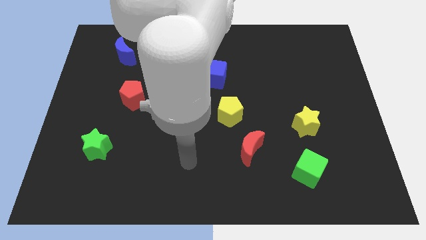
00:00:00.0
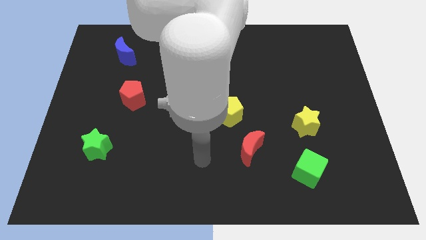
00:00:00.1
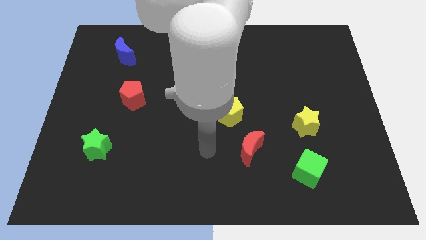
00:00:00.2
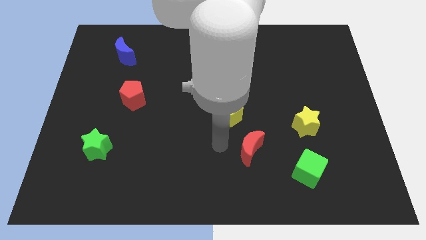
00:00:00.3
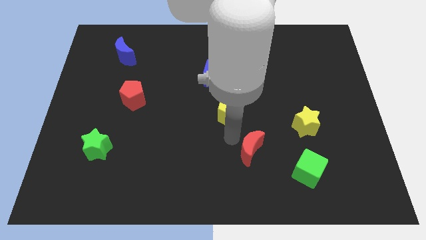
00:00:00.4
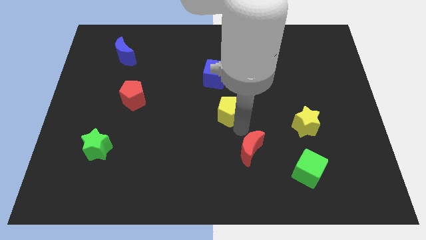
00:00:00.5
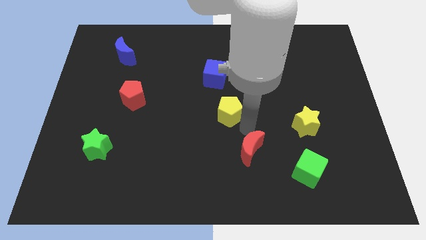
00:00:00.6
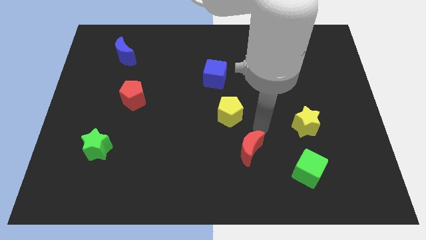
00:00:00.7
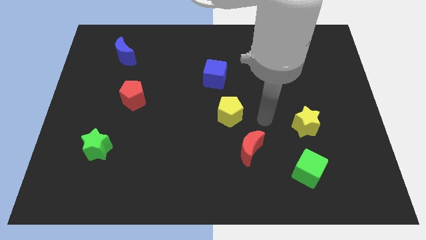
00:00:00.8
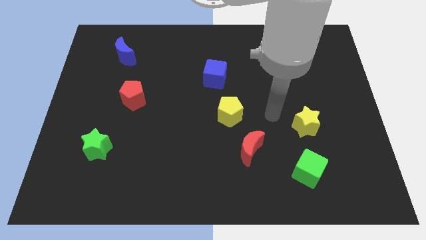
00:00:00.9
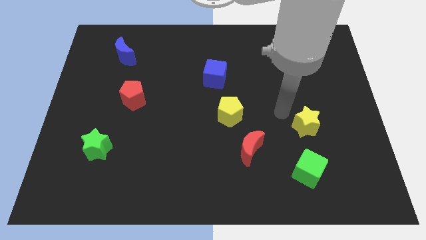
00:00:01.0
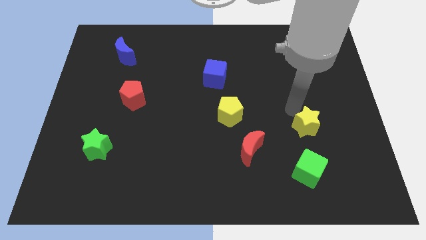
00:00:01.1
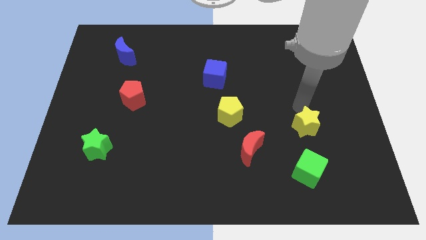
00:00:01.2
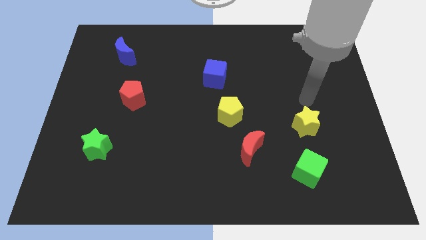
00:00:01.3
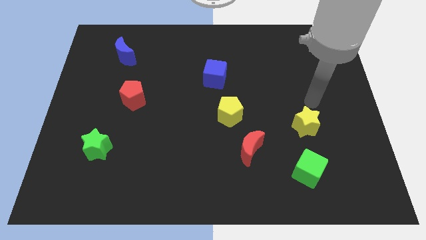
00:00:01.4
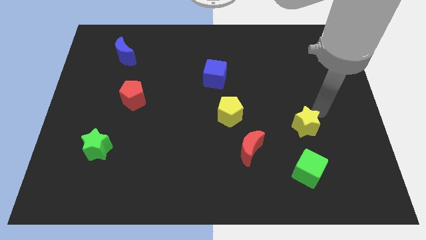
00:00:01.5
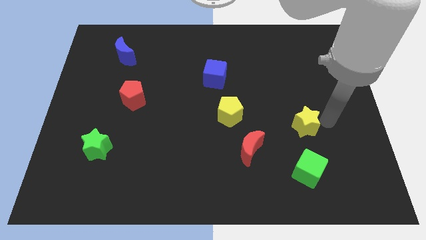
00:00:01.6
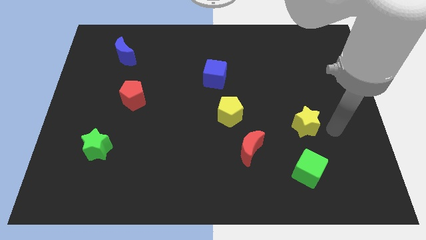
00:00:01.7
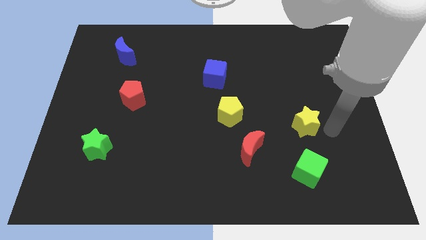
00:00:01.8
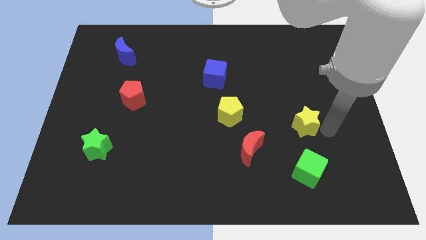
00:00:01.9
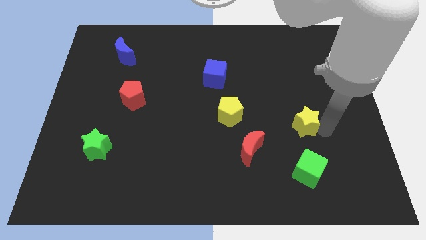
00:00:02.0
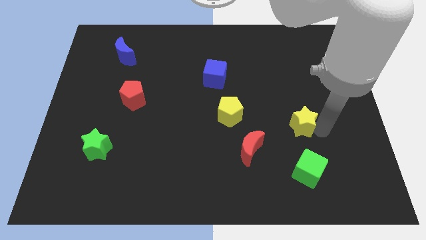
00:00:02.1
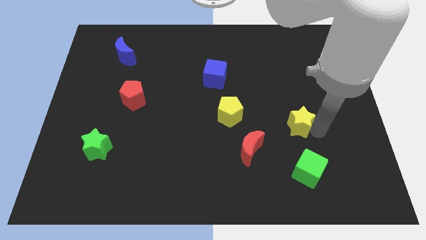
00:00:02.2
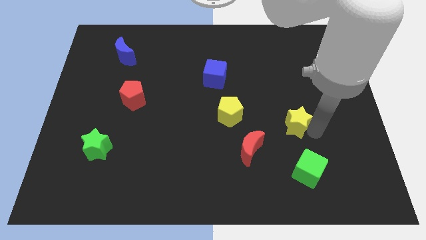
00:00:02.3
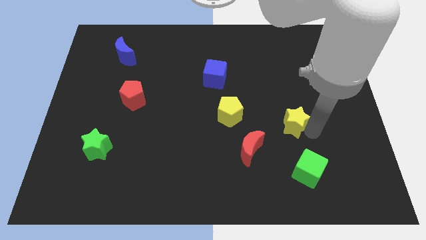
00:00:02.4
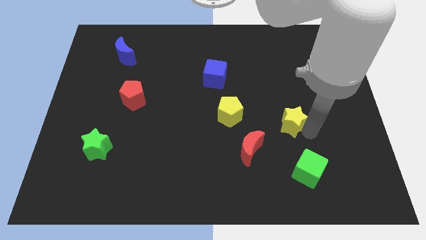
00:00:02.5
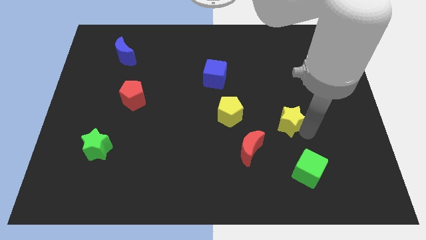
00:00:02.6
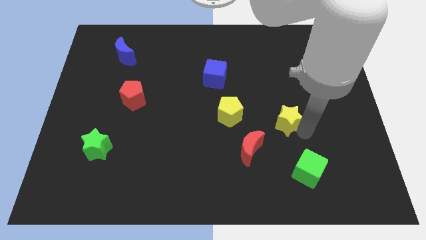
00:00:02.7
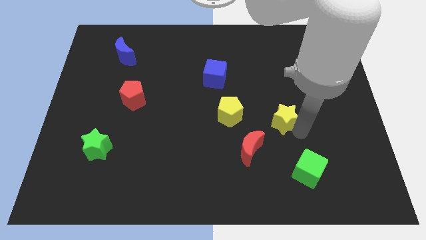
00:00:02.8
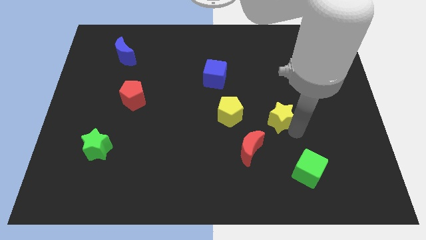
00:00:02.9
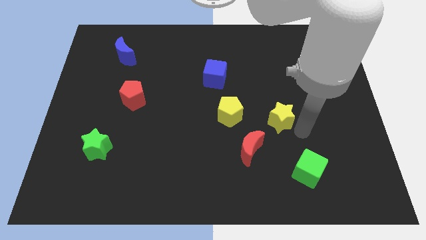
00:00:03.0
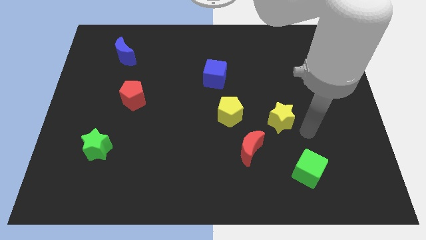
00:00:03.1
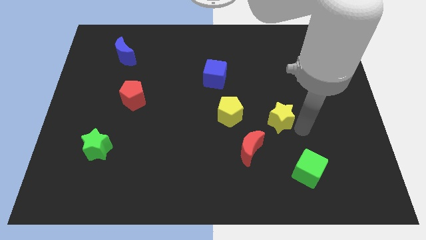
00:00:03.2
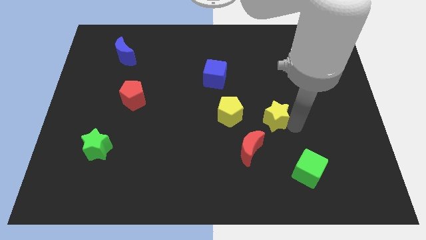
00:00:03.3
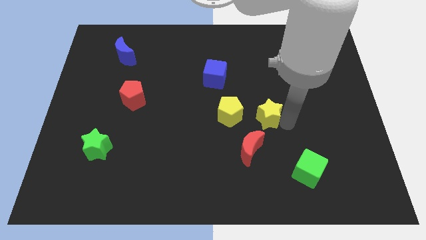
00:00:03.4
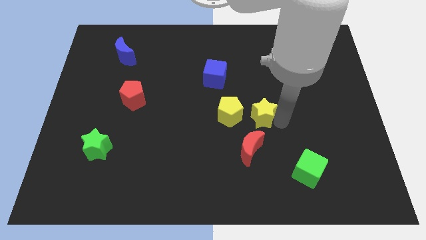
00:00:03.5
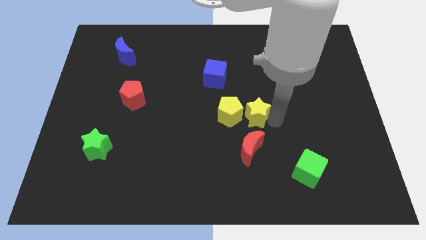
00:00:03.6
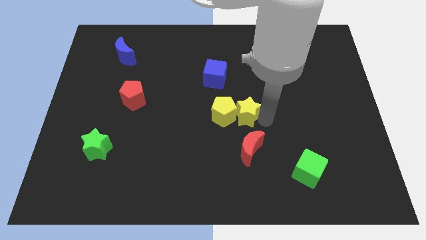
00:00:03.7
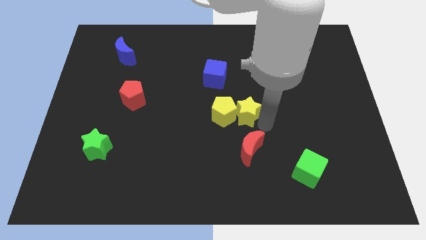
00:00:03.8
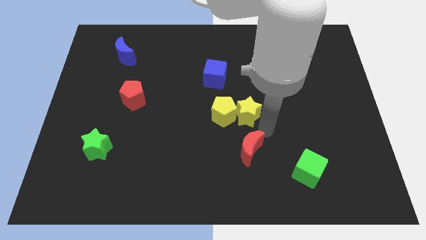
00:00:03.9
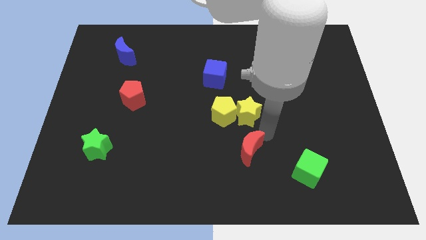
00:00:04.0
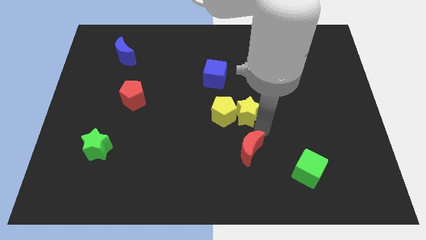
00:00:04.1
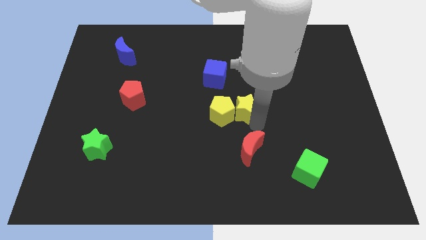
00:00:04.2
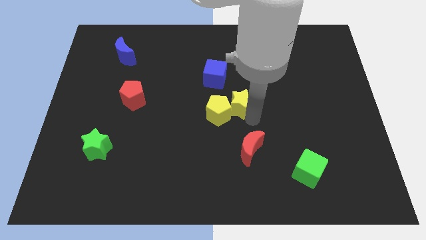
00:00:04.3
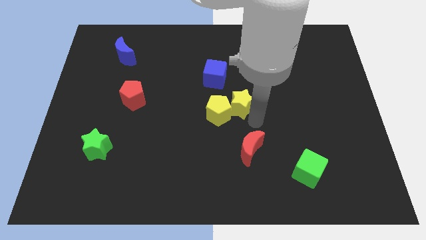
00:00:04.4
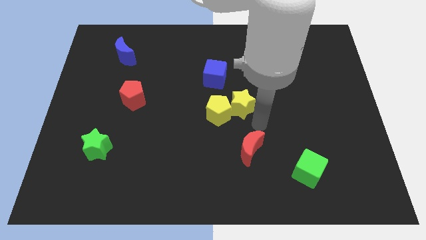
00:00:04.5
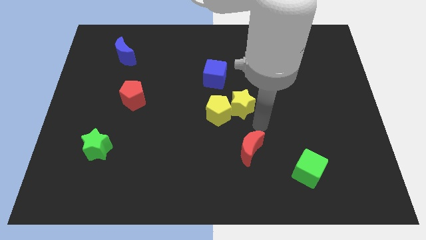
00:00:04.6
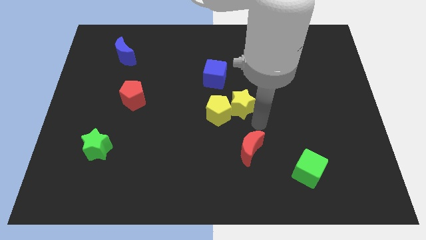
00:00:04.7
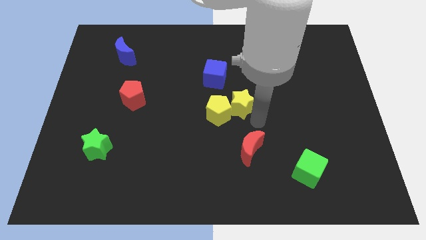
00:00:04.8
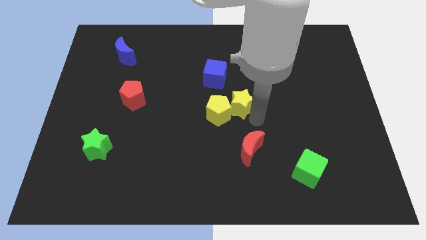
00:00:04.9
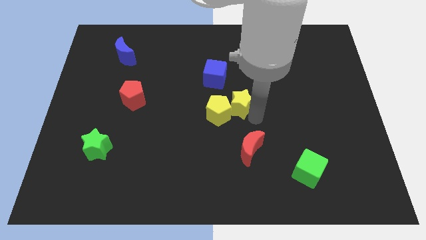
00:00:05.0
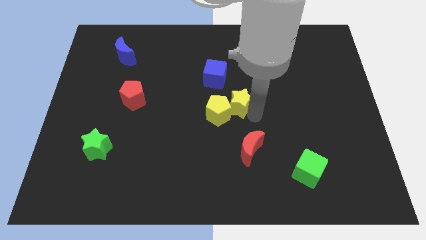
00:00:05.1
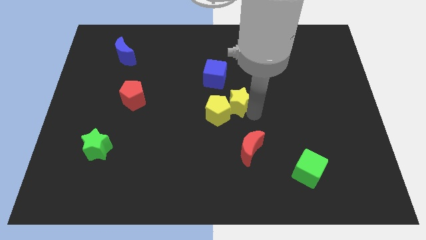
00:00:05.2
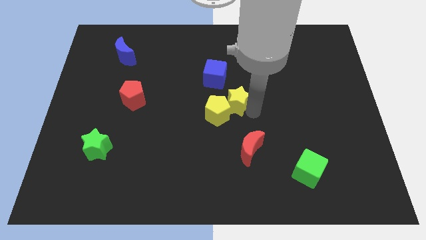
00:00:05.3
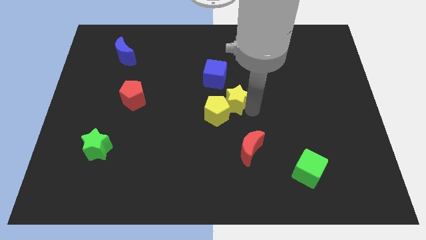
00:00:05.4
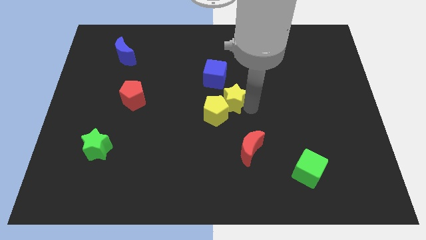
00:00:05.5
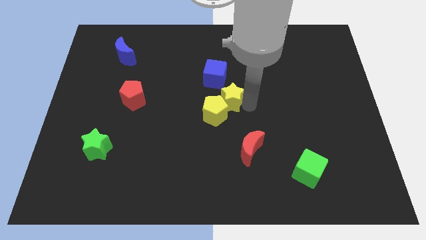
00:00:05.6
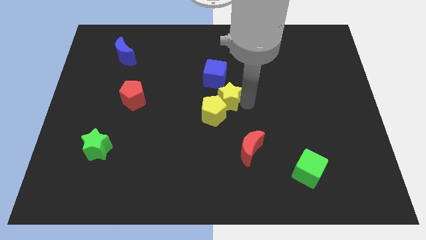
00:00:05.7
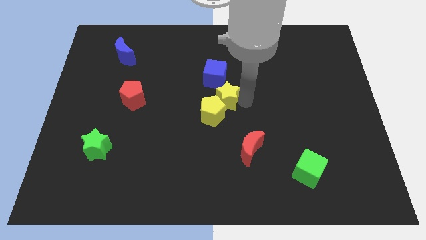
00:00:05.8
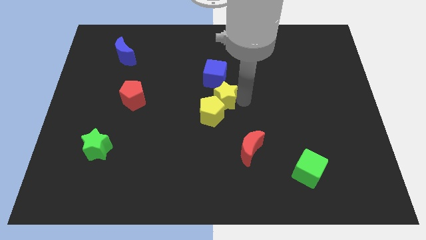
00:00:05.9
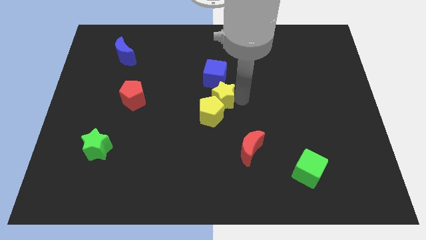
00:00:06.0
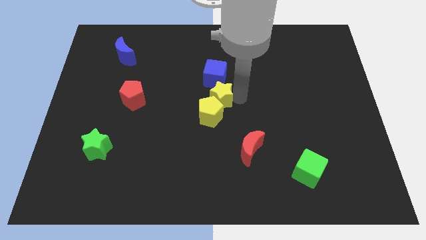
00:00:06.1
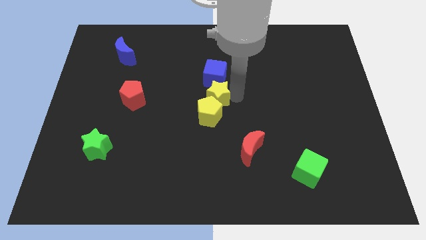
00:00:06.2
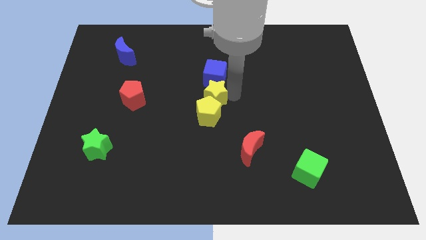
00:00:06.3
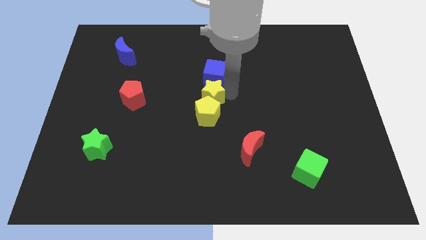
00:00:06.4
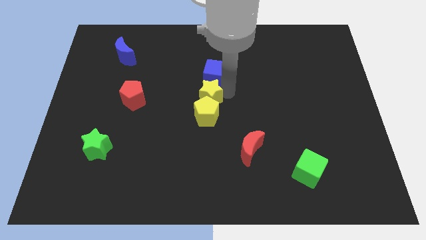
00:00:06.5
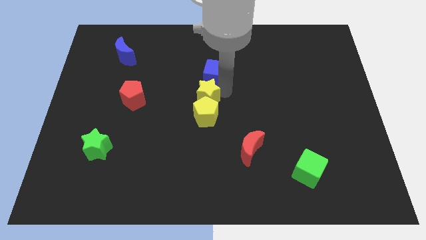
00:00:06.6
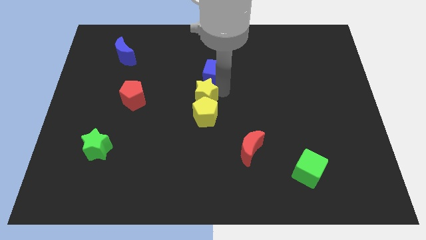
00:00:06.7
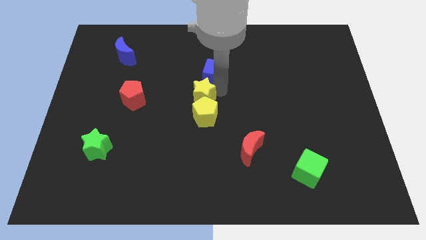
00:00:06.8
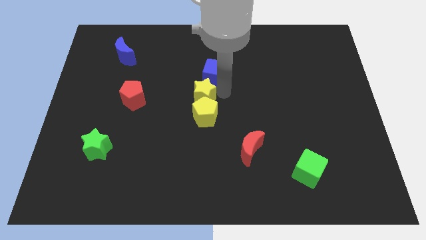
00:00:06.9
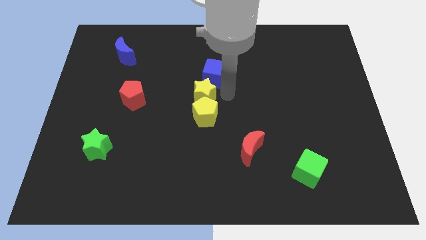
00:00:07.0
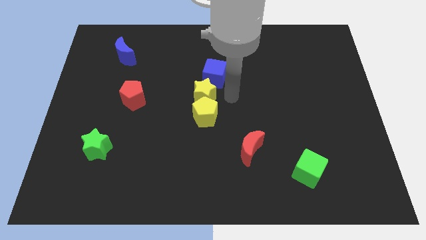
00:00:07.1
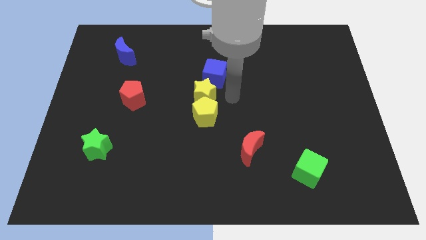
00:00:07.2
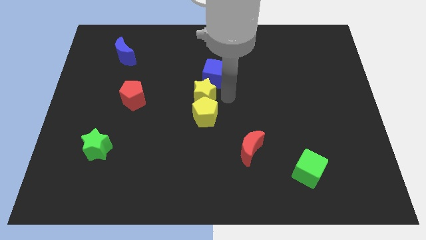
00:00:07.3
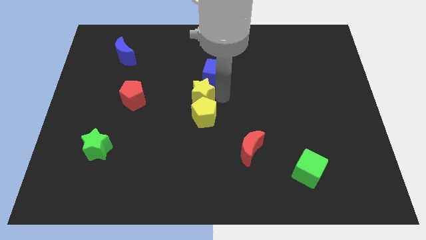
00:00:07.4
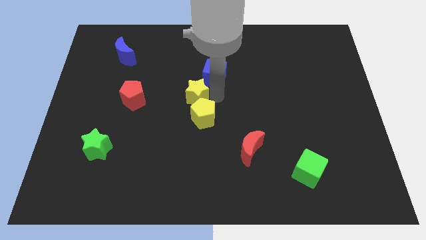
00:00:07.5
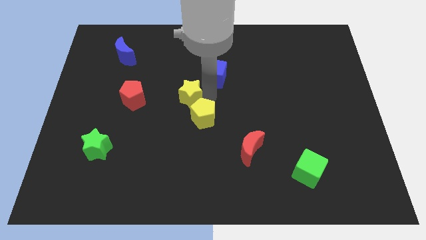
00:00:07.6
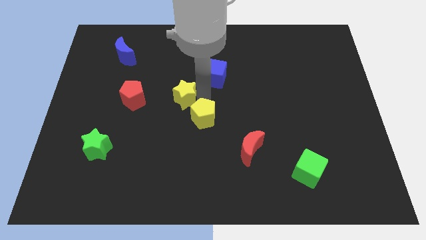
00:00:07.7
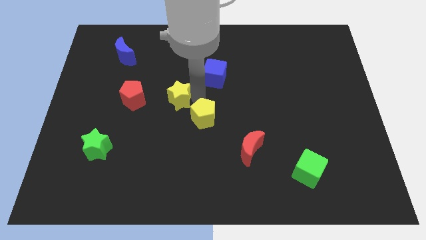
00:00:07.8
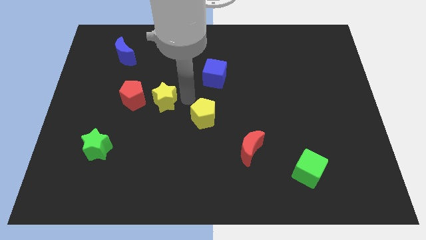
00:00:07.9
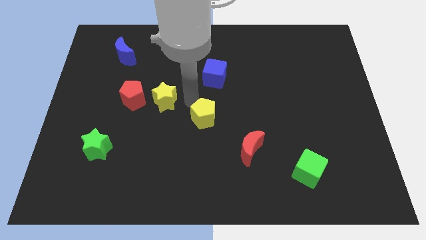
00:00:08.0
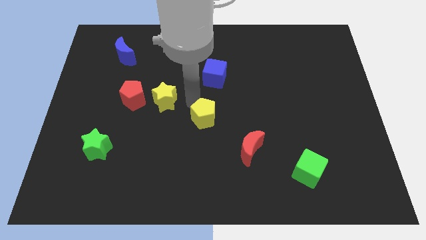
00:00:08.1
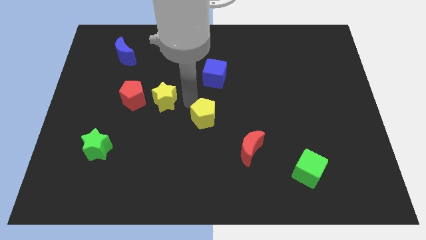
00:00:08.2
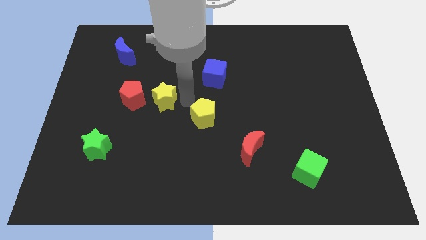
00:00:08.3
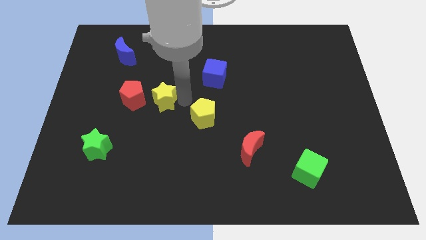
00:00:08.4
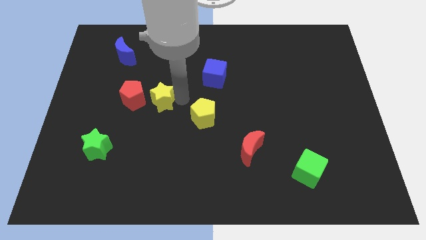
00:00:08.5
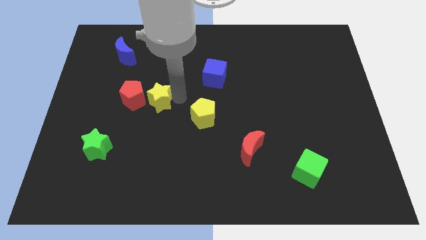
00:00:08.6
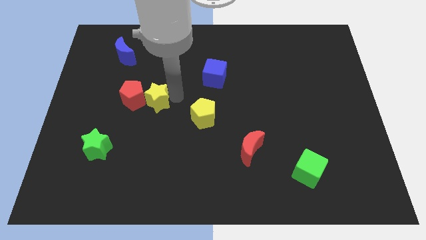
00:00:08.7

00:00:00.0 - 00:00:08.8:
put the yellow star to the red pentagon
